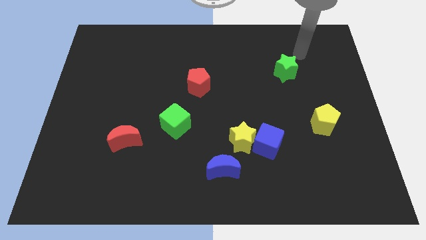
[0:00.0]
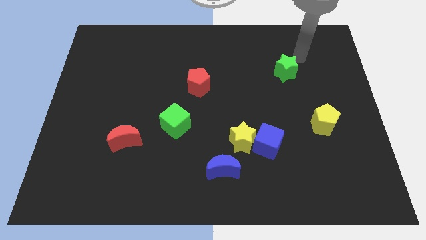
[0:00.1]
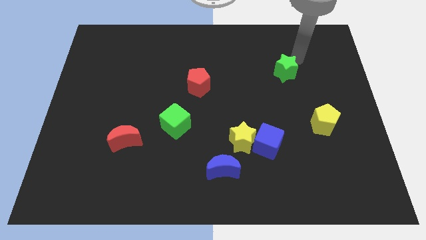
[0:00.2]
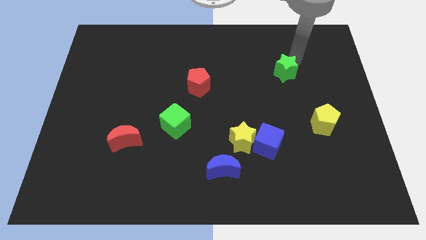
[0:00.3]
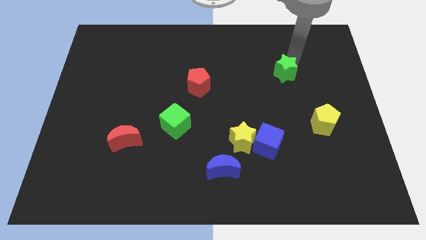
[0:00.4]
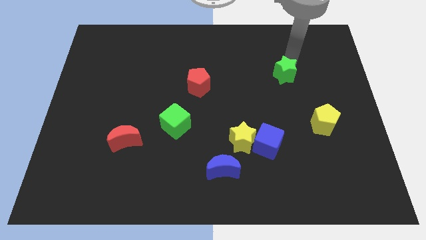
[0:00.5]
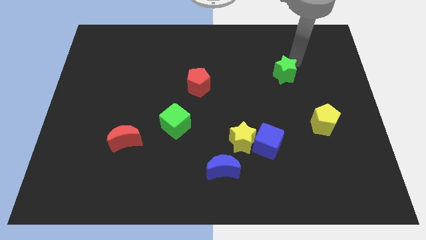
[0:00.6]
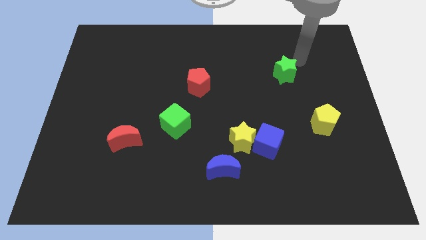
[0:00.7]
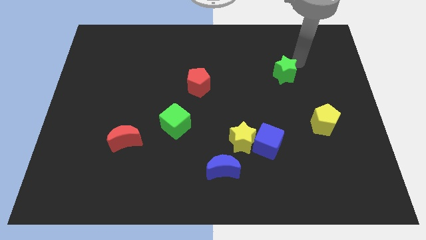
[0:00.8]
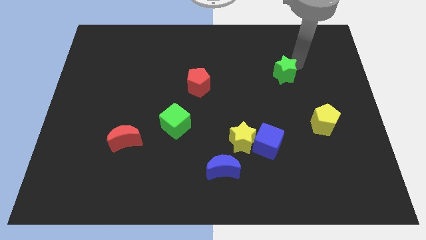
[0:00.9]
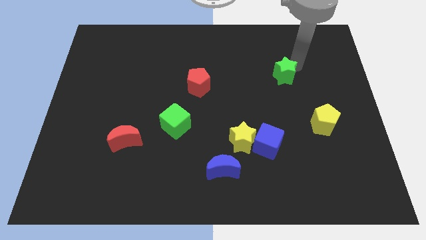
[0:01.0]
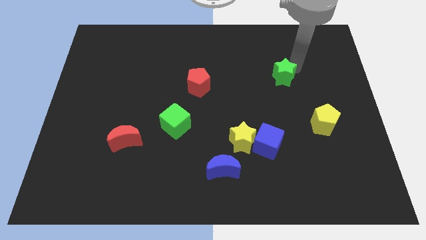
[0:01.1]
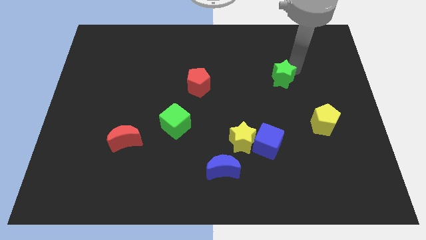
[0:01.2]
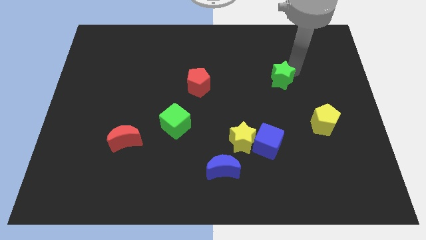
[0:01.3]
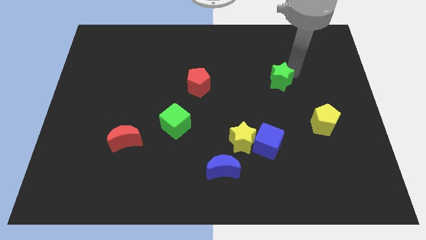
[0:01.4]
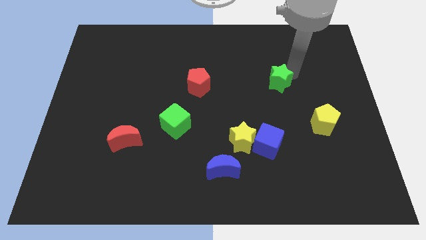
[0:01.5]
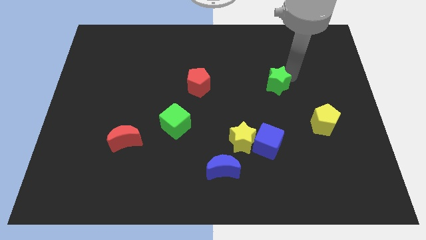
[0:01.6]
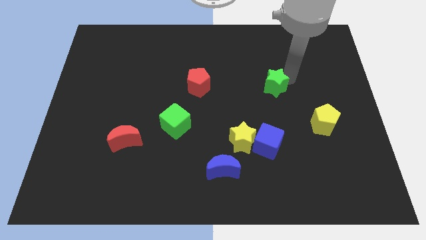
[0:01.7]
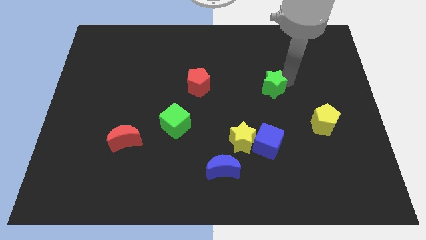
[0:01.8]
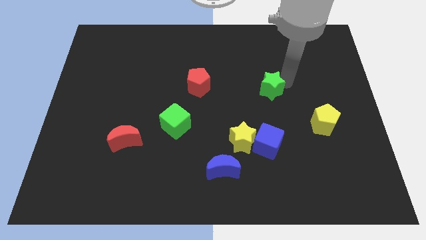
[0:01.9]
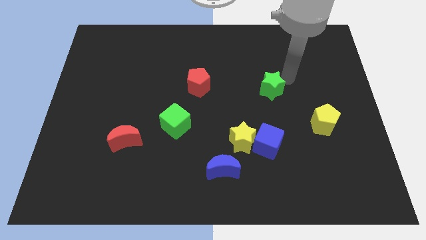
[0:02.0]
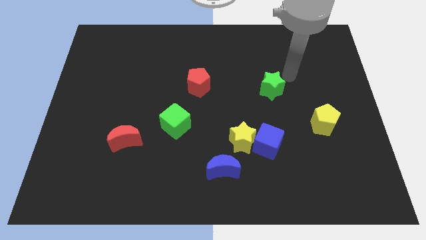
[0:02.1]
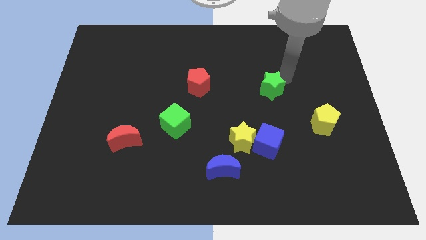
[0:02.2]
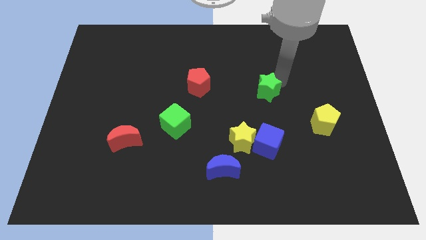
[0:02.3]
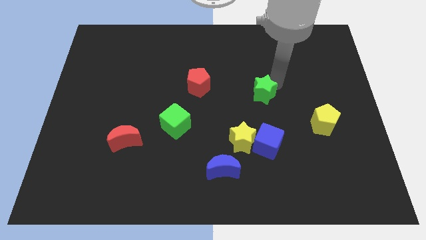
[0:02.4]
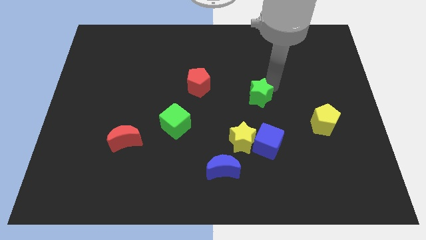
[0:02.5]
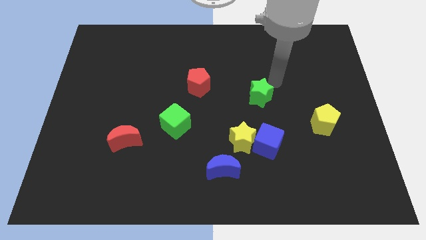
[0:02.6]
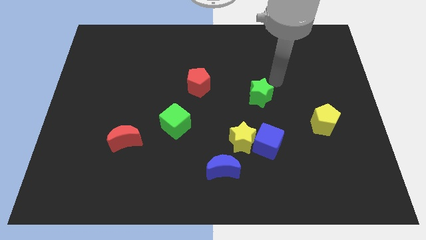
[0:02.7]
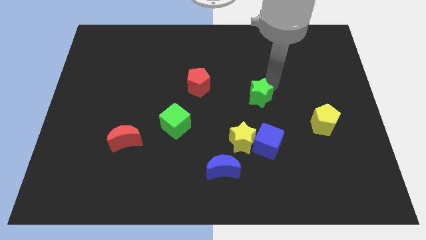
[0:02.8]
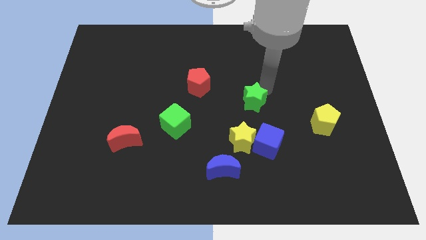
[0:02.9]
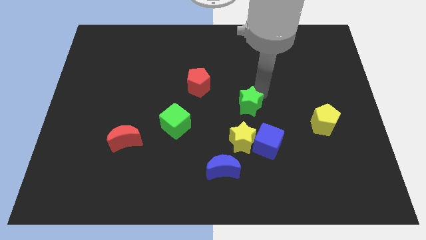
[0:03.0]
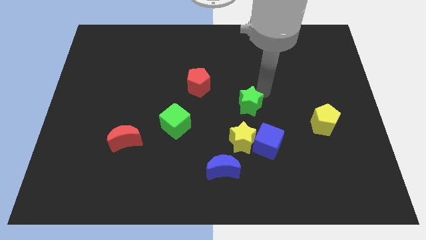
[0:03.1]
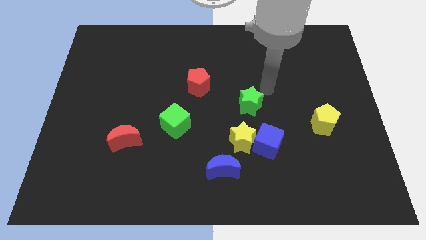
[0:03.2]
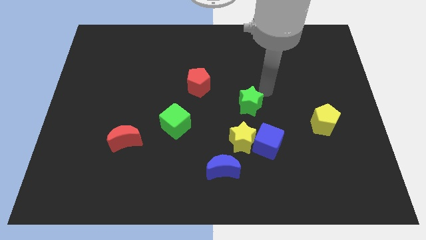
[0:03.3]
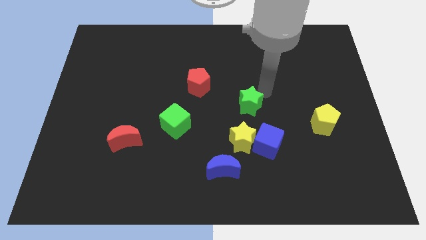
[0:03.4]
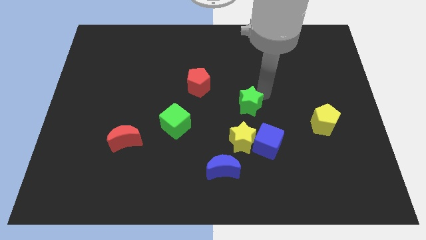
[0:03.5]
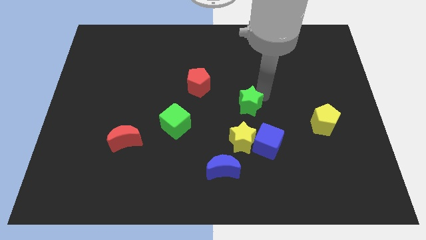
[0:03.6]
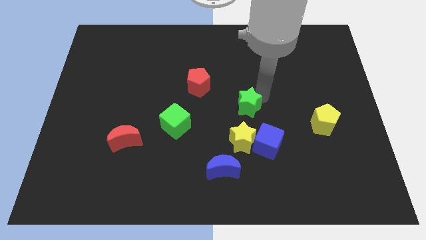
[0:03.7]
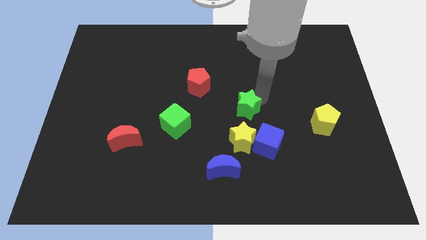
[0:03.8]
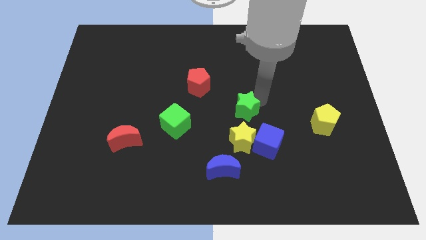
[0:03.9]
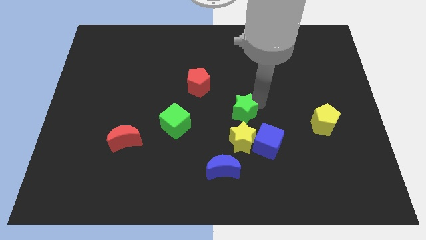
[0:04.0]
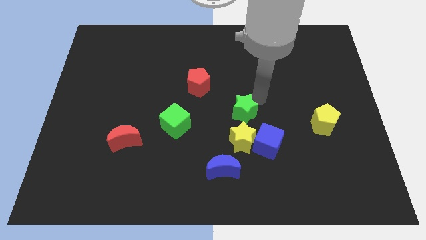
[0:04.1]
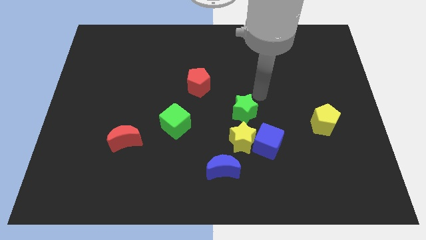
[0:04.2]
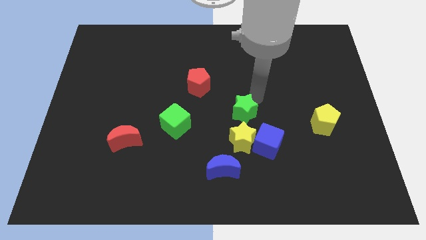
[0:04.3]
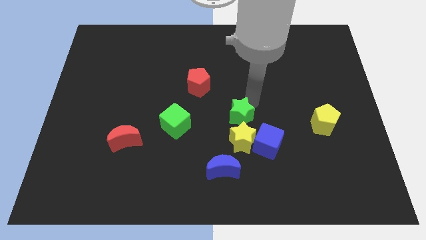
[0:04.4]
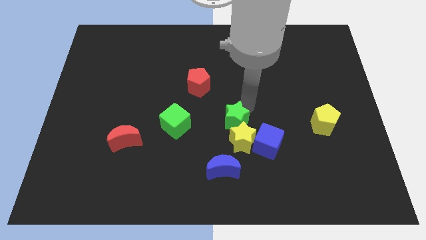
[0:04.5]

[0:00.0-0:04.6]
slide the green star downwards and left

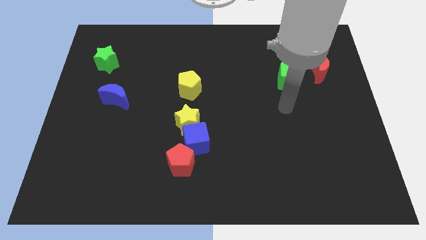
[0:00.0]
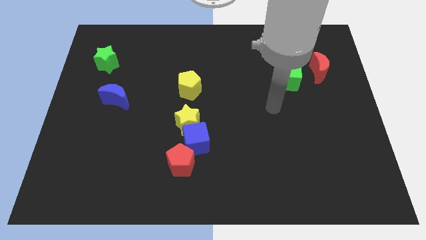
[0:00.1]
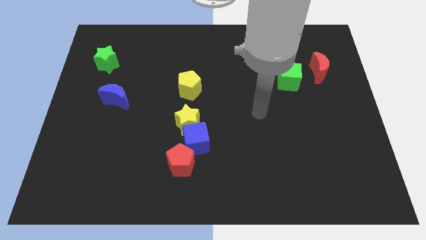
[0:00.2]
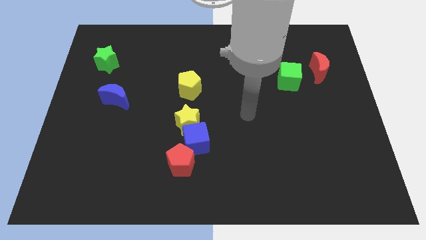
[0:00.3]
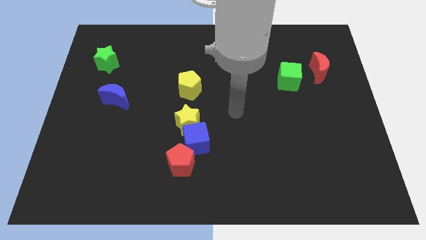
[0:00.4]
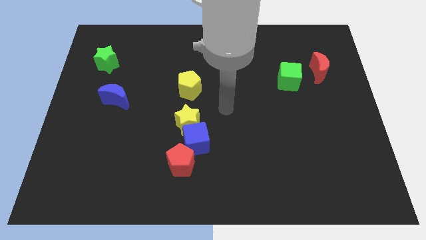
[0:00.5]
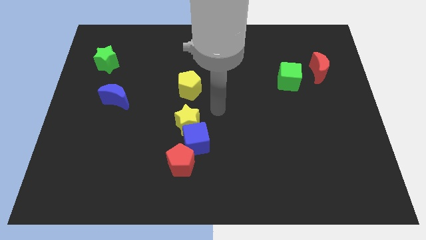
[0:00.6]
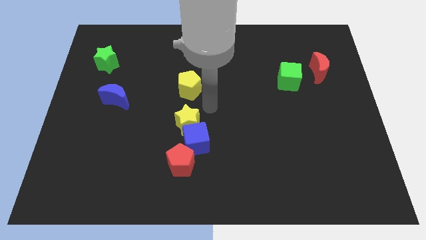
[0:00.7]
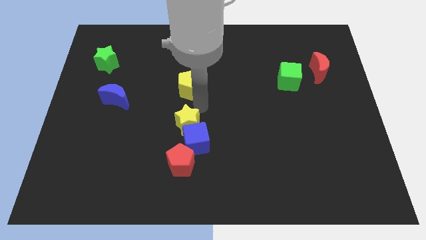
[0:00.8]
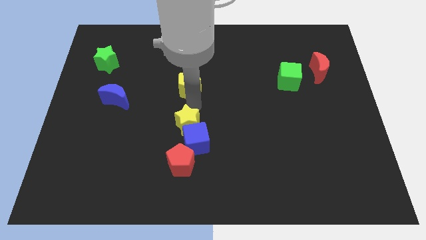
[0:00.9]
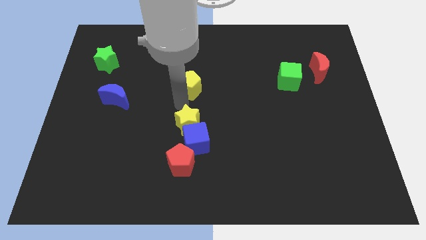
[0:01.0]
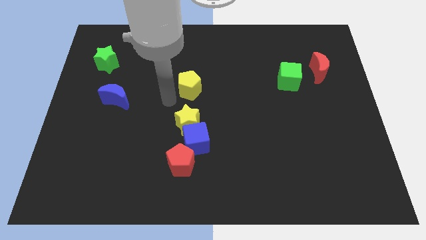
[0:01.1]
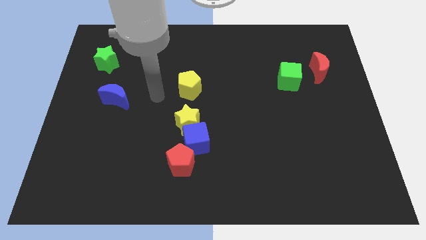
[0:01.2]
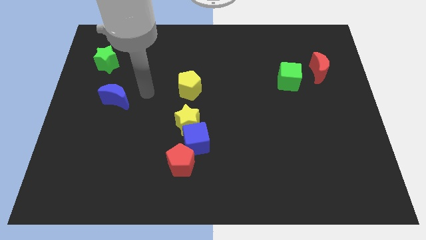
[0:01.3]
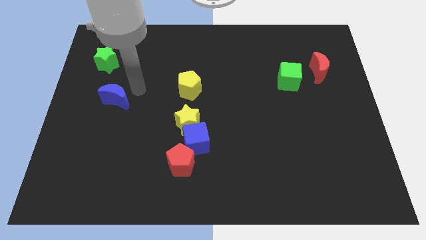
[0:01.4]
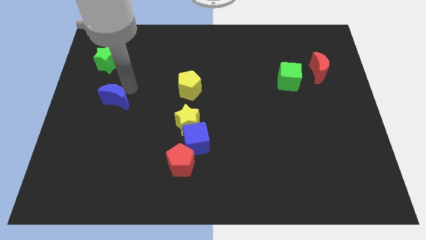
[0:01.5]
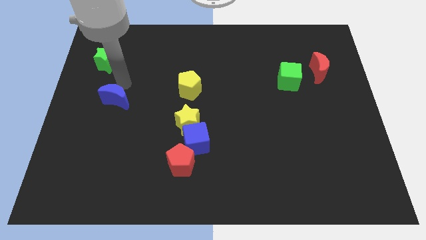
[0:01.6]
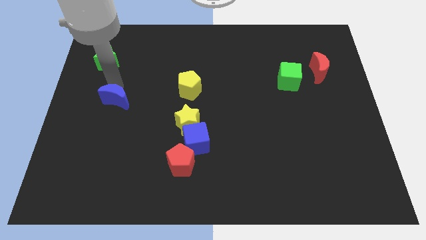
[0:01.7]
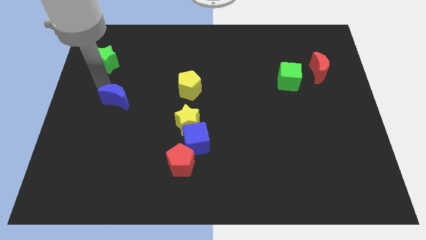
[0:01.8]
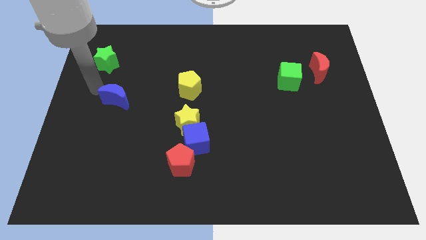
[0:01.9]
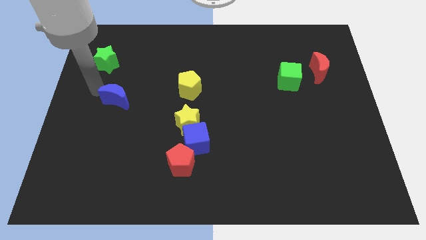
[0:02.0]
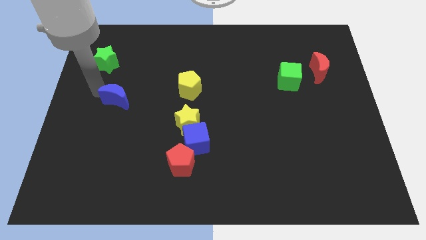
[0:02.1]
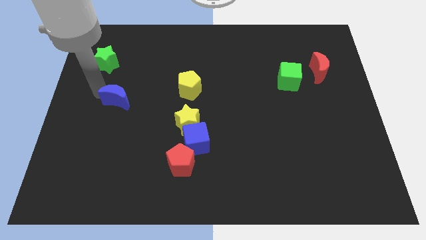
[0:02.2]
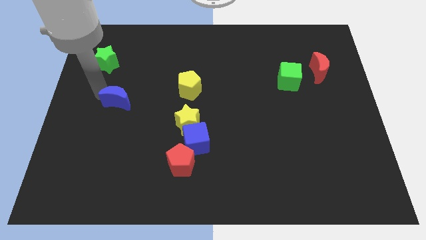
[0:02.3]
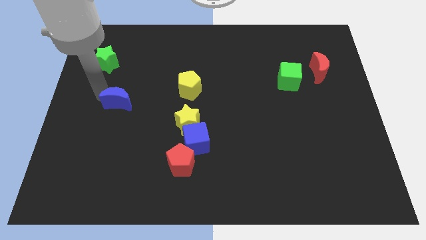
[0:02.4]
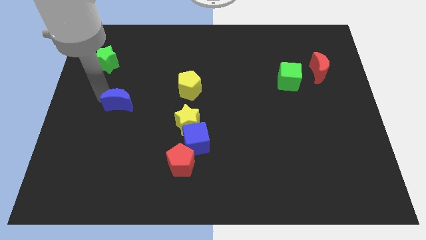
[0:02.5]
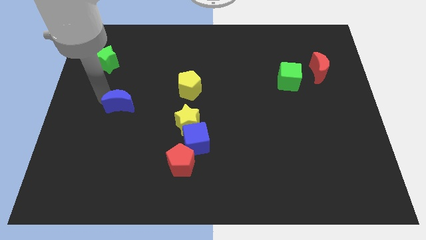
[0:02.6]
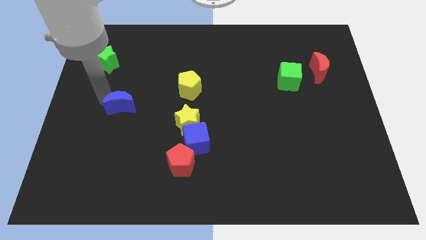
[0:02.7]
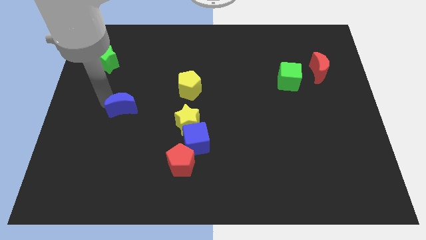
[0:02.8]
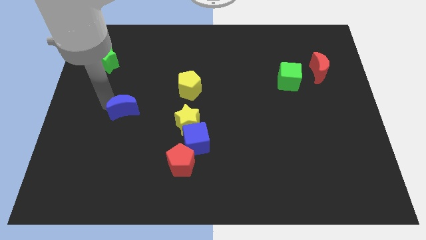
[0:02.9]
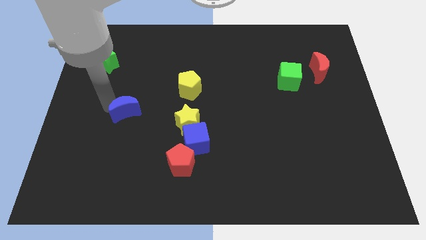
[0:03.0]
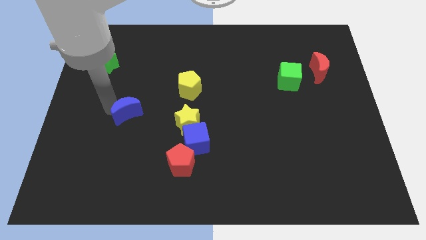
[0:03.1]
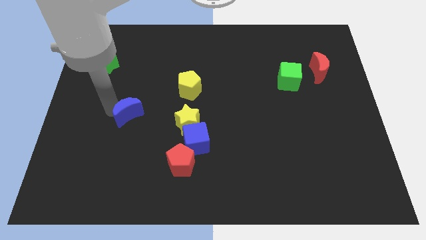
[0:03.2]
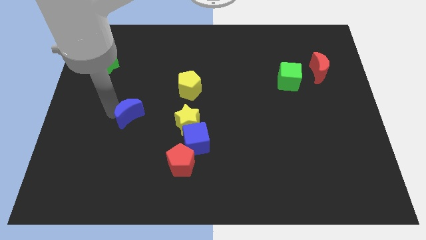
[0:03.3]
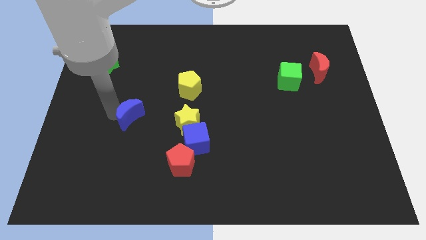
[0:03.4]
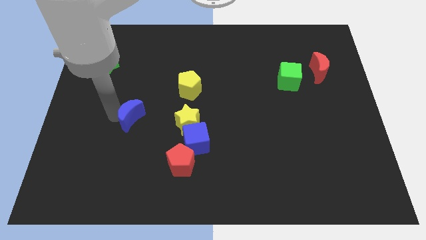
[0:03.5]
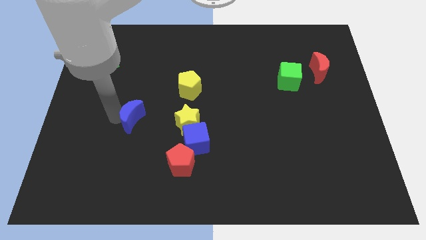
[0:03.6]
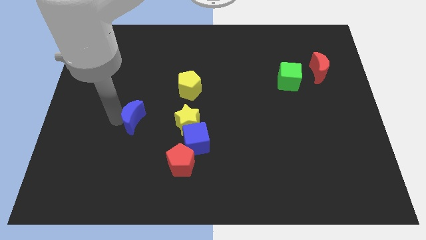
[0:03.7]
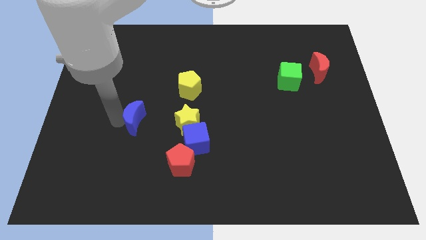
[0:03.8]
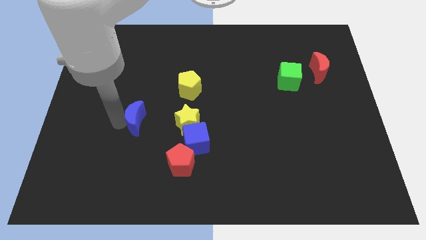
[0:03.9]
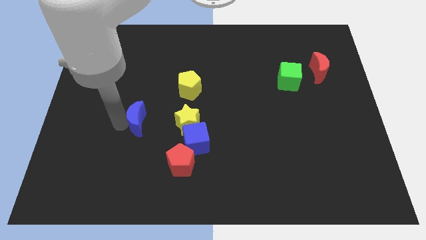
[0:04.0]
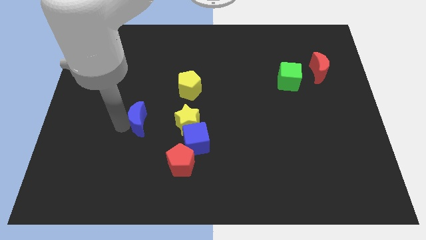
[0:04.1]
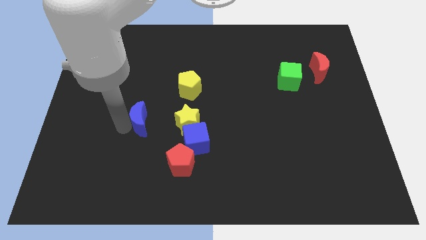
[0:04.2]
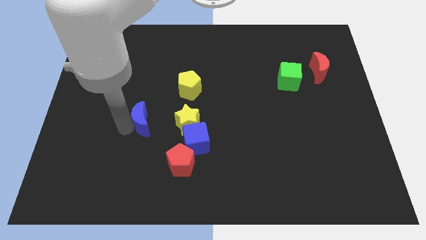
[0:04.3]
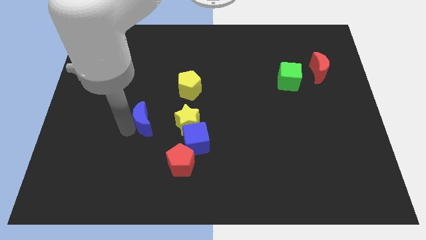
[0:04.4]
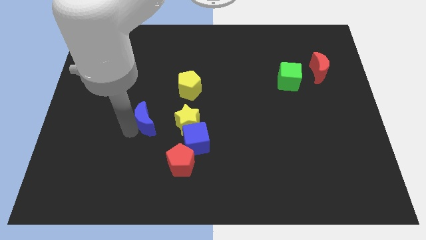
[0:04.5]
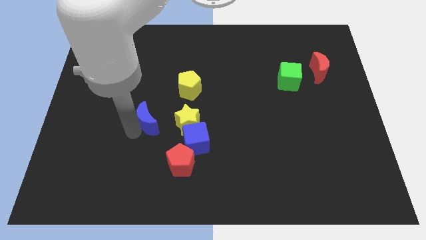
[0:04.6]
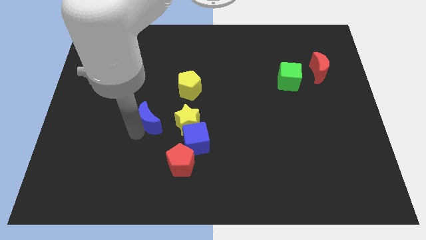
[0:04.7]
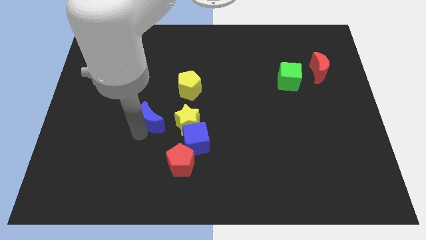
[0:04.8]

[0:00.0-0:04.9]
push the blue moon a bit to the right
